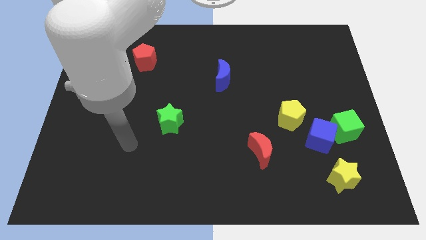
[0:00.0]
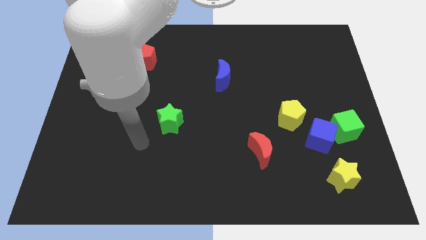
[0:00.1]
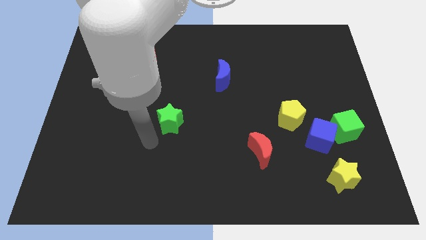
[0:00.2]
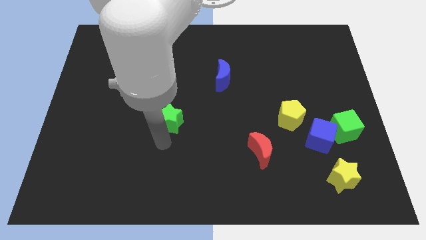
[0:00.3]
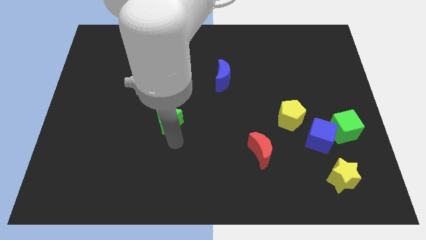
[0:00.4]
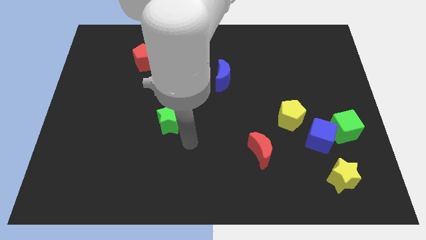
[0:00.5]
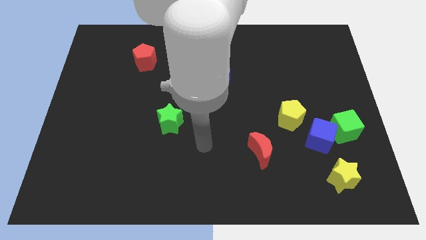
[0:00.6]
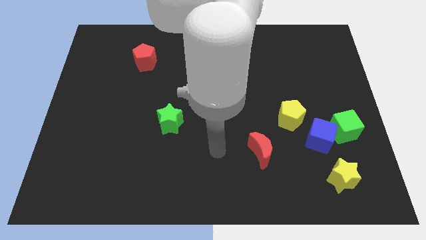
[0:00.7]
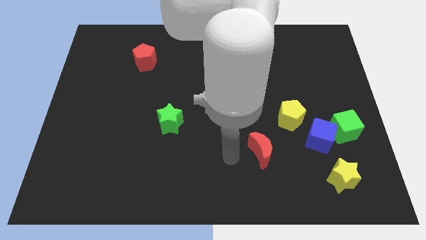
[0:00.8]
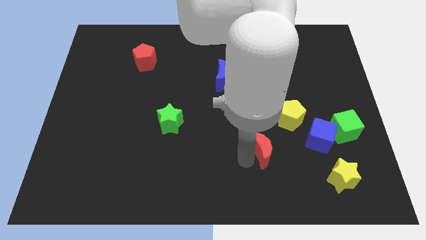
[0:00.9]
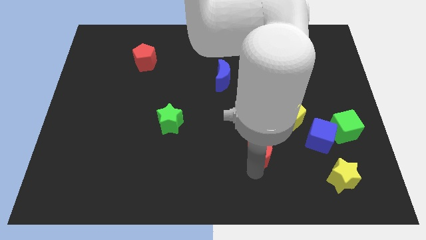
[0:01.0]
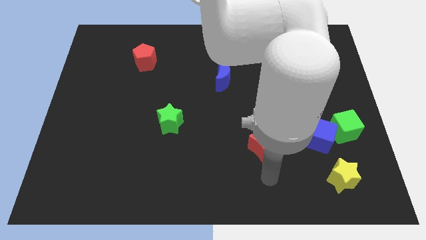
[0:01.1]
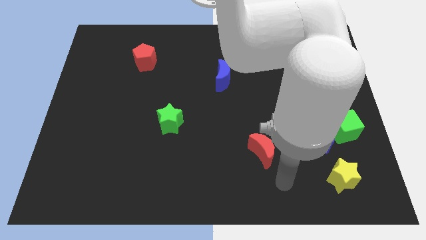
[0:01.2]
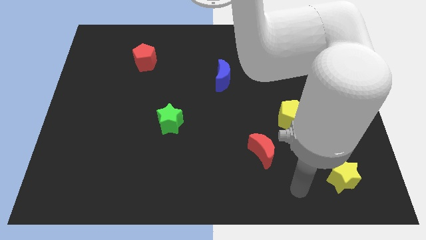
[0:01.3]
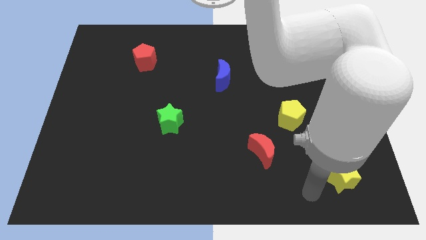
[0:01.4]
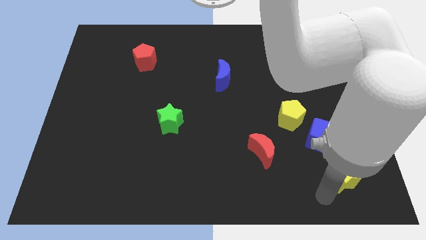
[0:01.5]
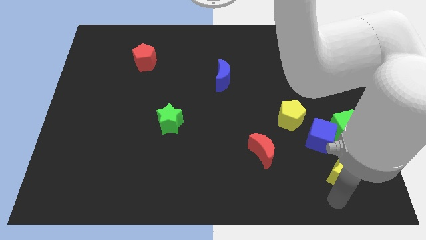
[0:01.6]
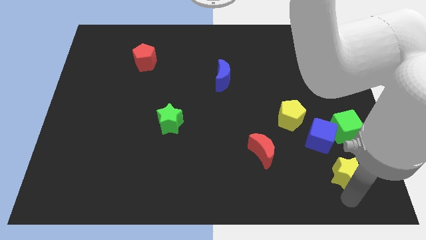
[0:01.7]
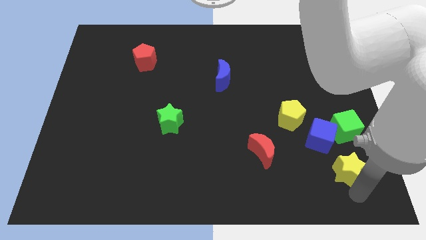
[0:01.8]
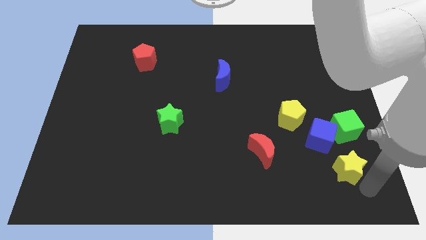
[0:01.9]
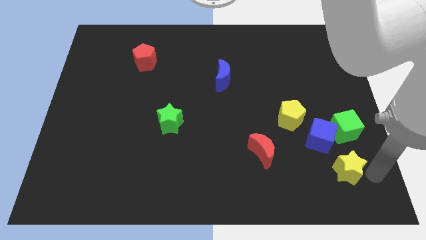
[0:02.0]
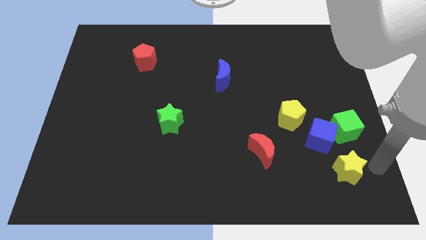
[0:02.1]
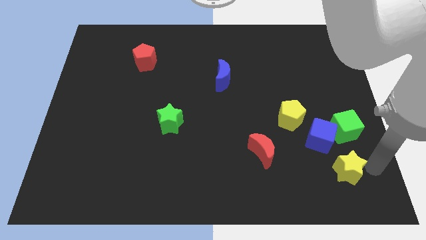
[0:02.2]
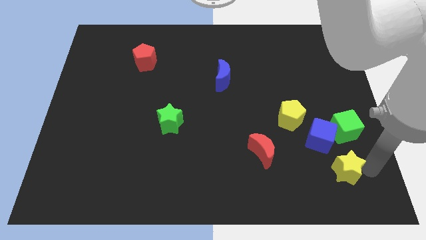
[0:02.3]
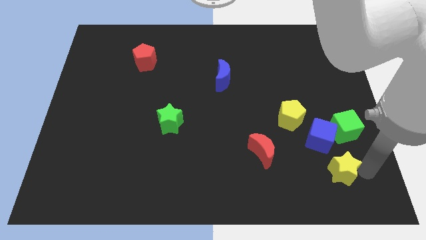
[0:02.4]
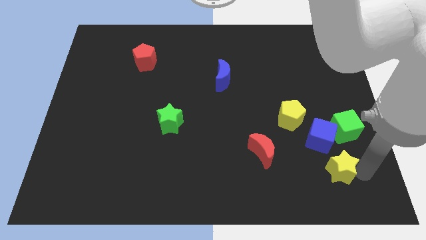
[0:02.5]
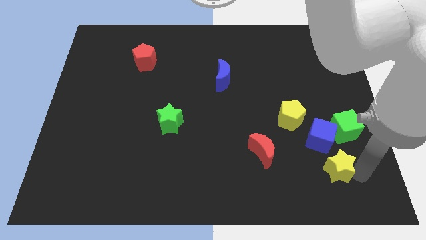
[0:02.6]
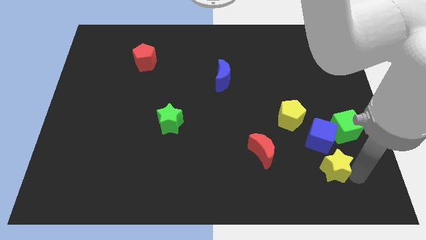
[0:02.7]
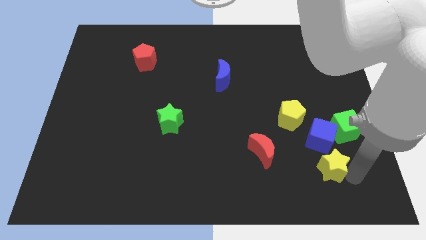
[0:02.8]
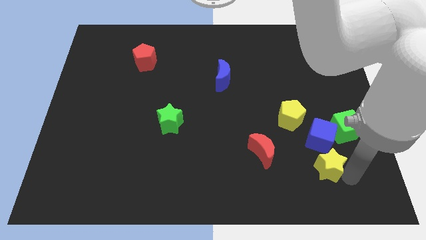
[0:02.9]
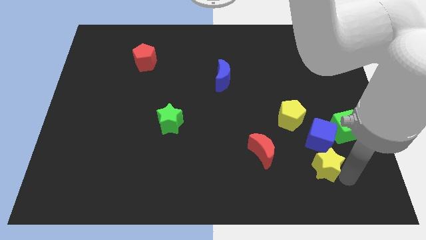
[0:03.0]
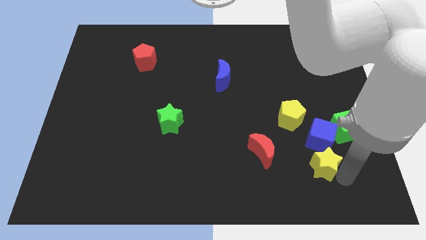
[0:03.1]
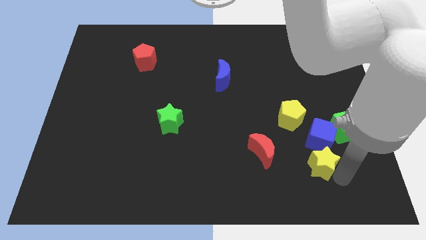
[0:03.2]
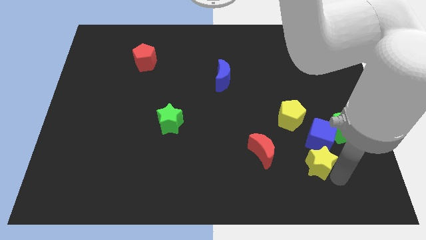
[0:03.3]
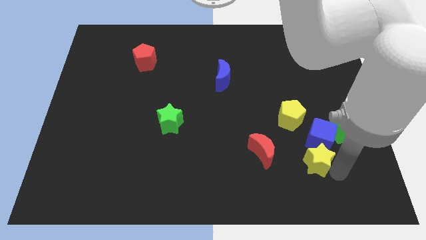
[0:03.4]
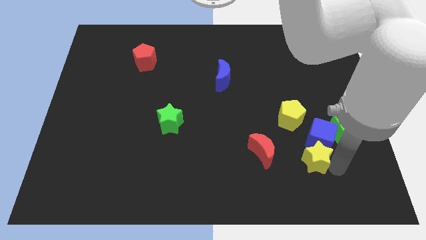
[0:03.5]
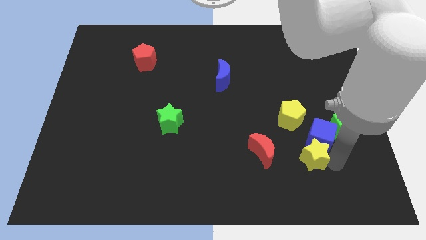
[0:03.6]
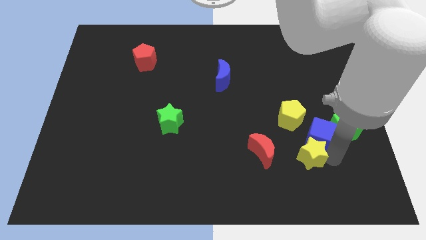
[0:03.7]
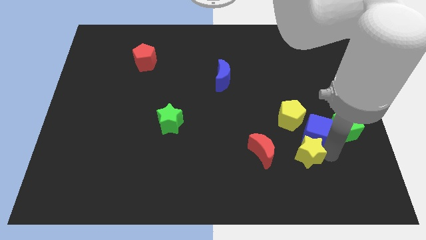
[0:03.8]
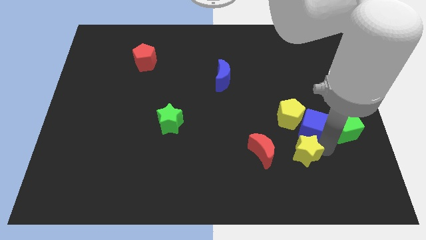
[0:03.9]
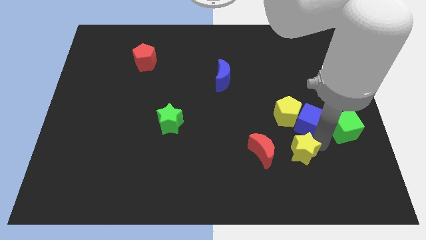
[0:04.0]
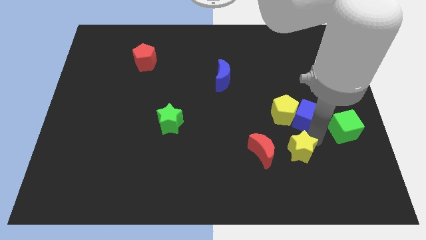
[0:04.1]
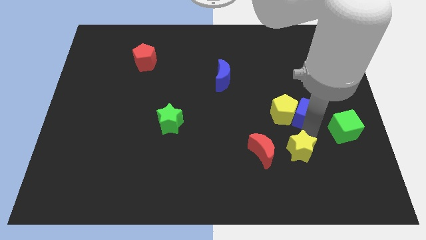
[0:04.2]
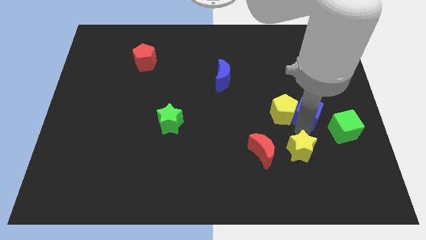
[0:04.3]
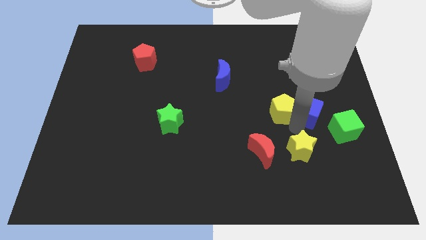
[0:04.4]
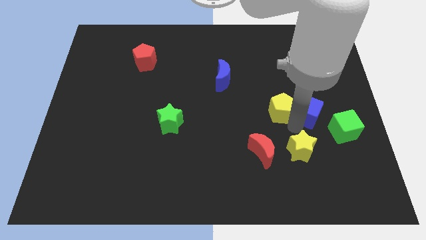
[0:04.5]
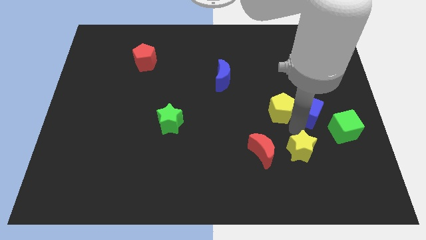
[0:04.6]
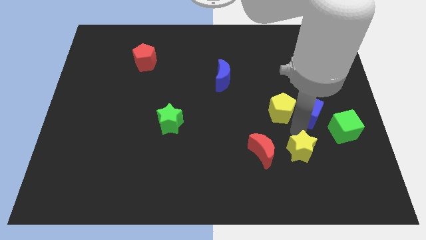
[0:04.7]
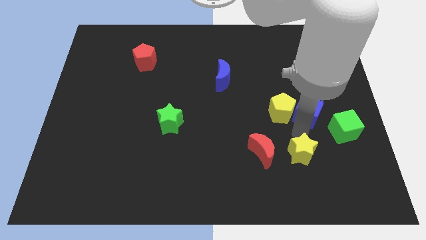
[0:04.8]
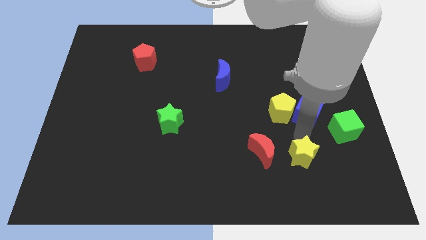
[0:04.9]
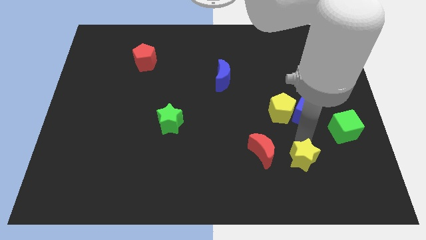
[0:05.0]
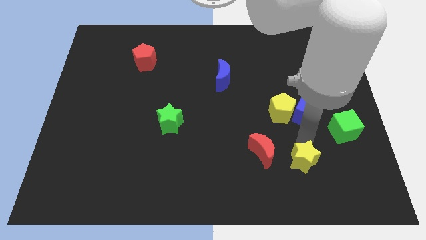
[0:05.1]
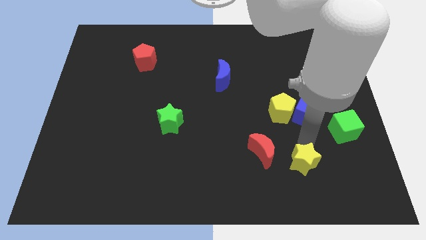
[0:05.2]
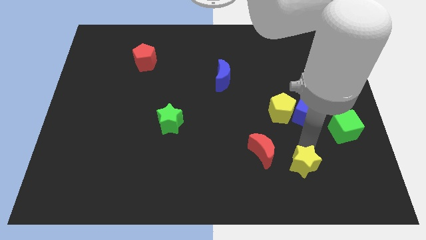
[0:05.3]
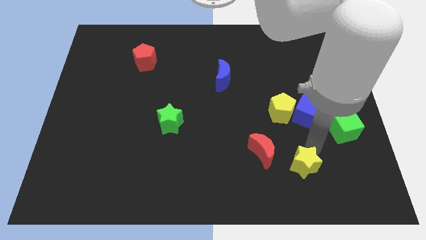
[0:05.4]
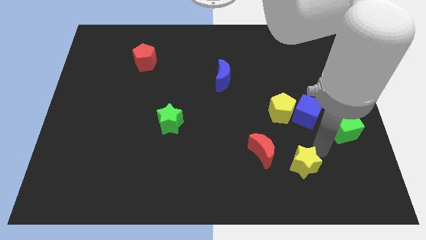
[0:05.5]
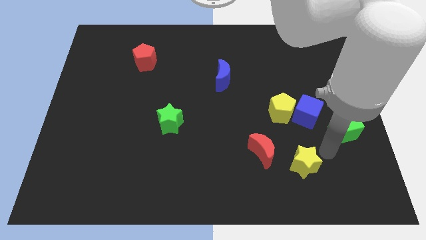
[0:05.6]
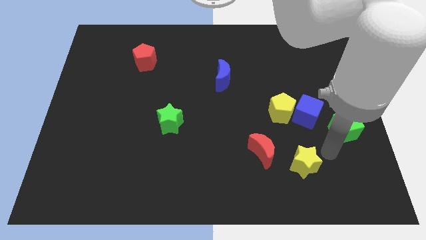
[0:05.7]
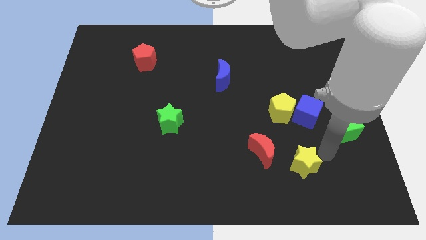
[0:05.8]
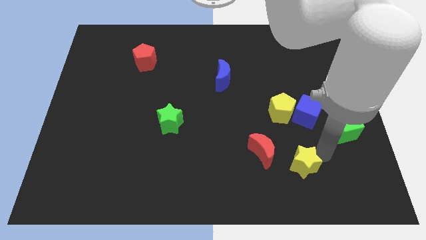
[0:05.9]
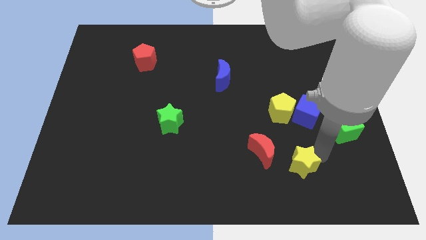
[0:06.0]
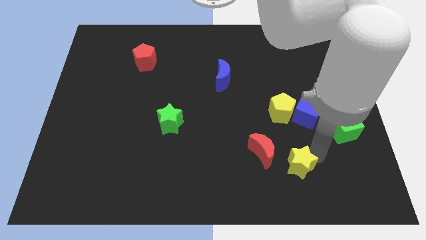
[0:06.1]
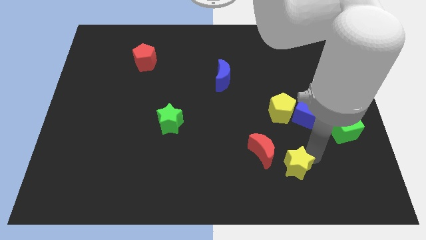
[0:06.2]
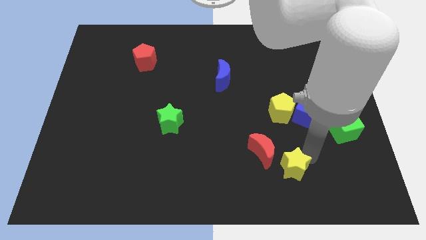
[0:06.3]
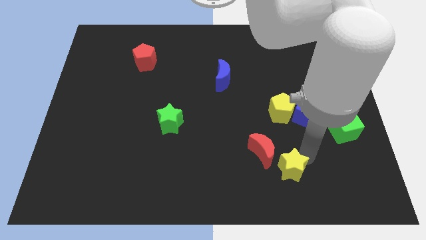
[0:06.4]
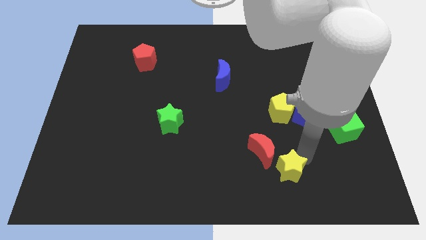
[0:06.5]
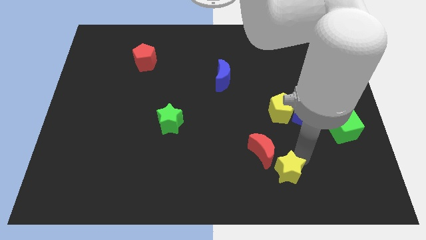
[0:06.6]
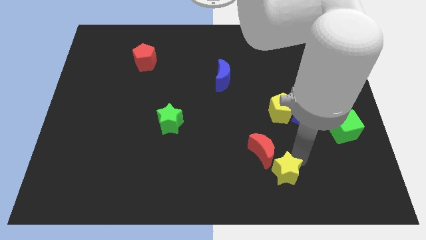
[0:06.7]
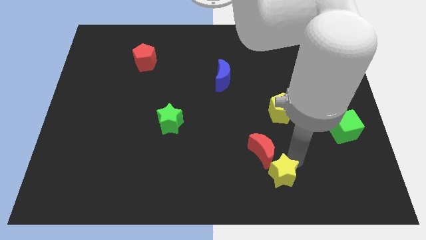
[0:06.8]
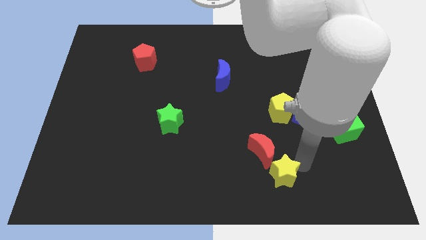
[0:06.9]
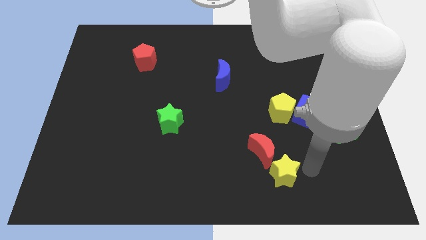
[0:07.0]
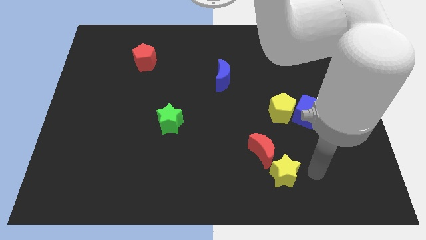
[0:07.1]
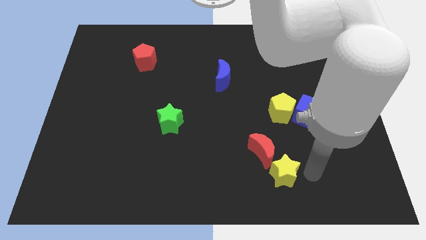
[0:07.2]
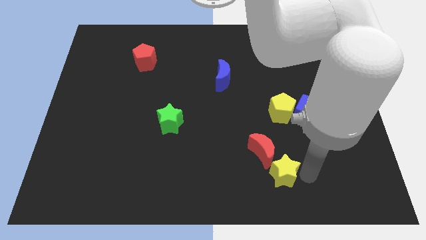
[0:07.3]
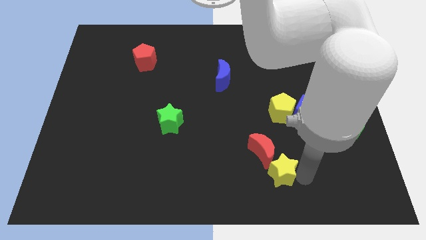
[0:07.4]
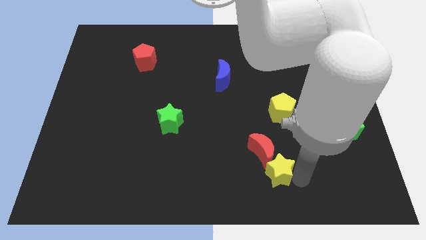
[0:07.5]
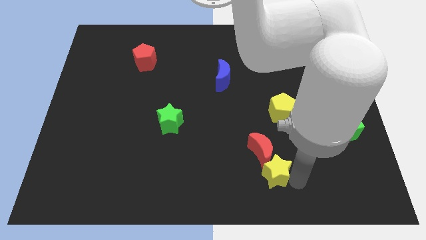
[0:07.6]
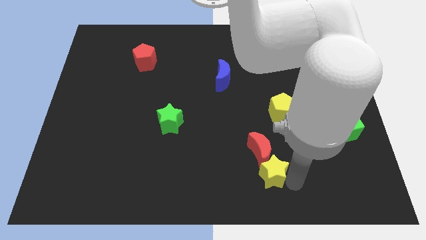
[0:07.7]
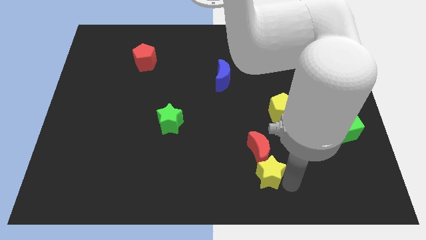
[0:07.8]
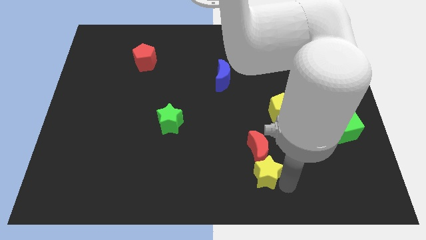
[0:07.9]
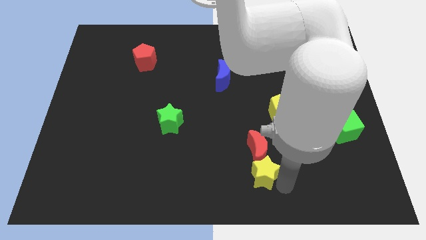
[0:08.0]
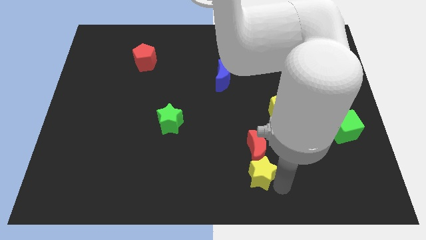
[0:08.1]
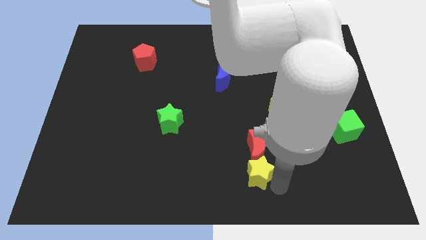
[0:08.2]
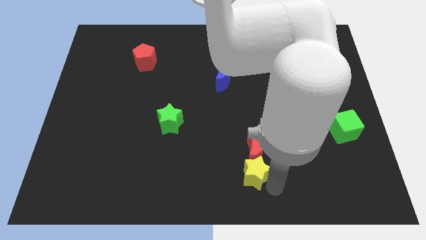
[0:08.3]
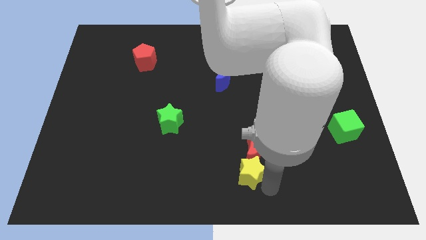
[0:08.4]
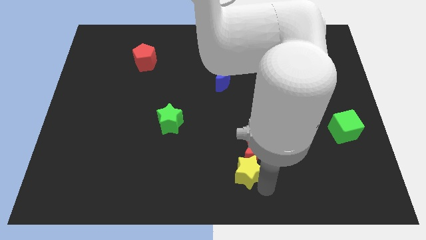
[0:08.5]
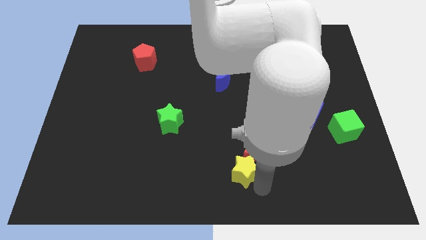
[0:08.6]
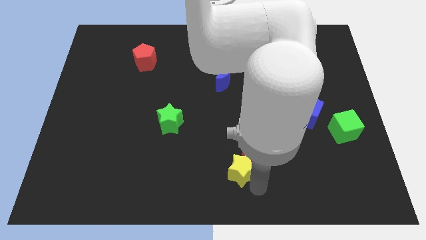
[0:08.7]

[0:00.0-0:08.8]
move the yellow star to the left
